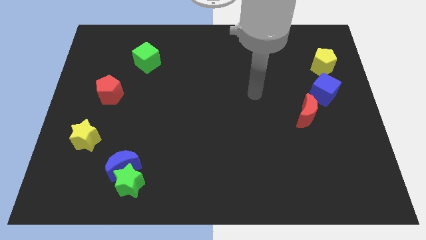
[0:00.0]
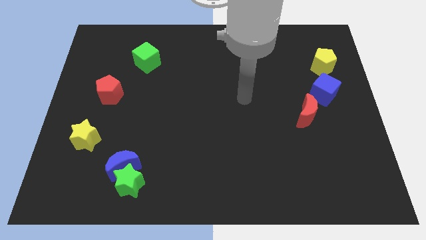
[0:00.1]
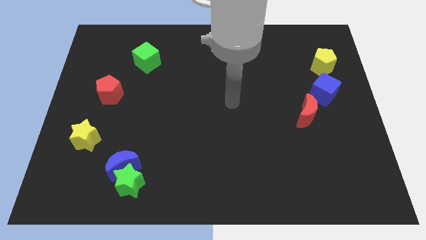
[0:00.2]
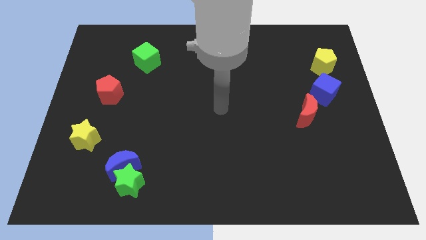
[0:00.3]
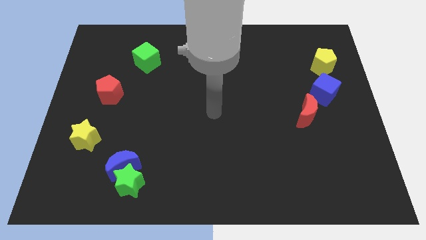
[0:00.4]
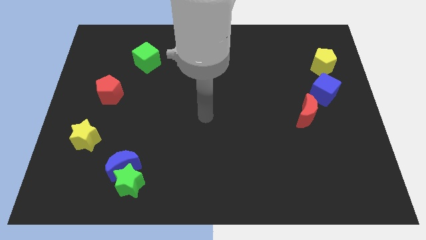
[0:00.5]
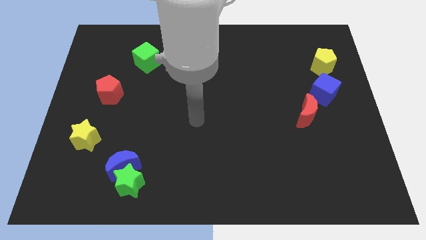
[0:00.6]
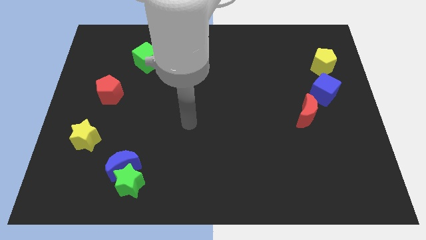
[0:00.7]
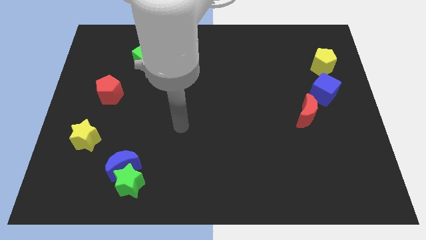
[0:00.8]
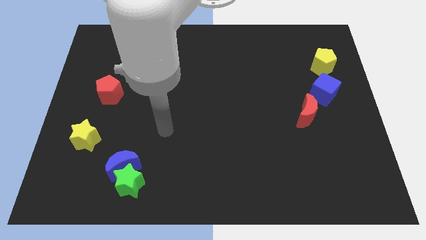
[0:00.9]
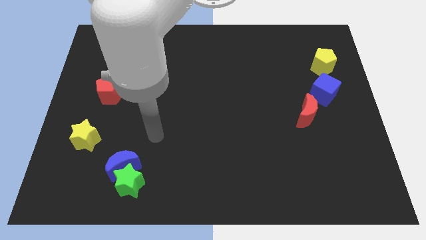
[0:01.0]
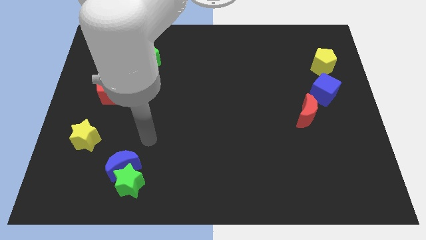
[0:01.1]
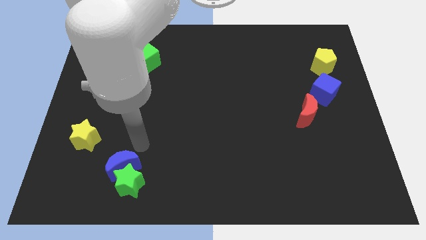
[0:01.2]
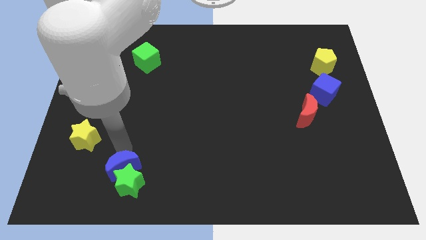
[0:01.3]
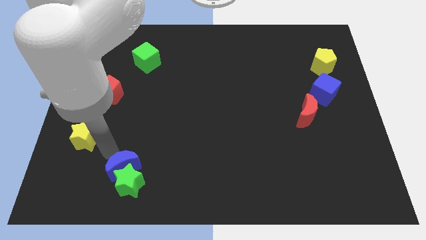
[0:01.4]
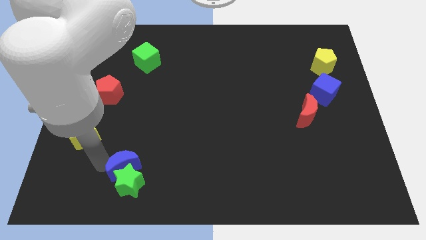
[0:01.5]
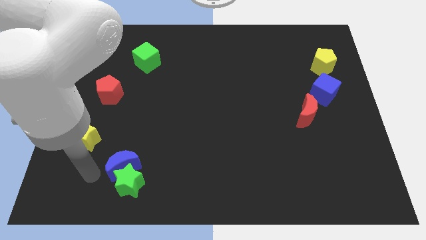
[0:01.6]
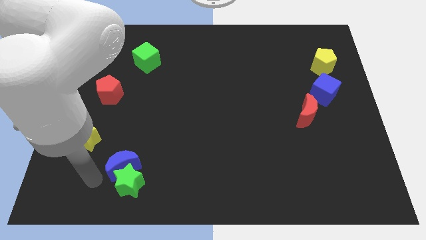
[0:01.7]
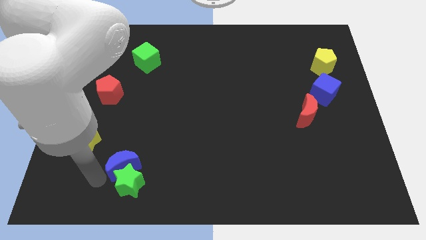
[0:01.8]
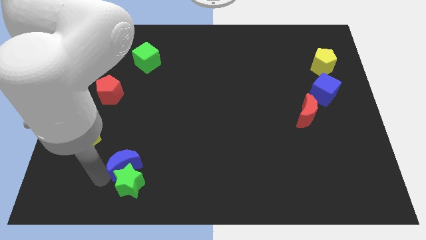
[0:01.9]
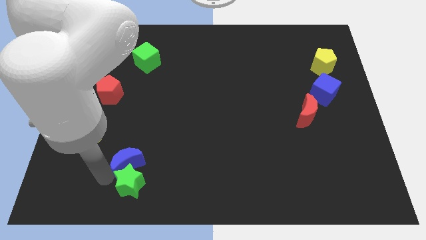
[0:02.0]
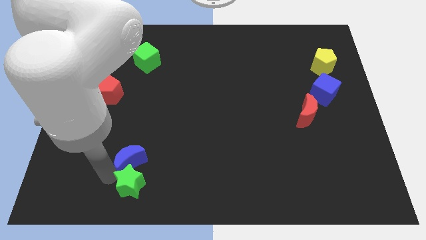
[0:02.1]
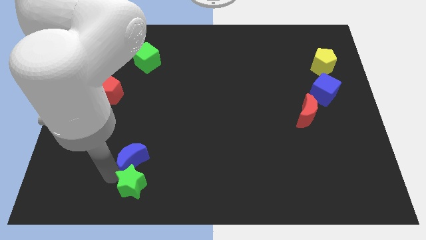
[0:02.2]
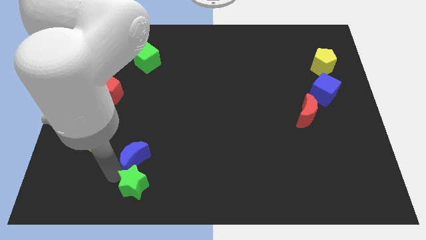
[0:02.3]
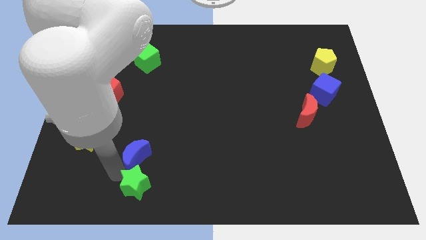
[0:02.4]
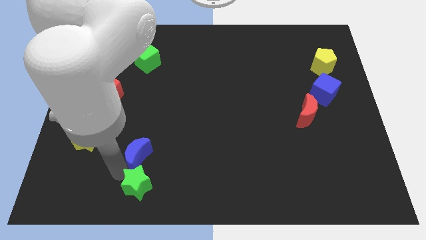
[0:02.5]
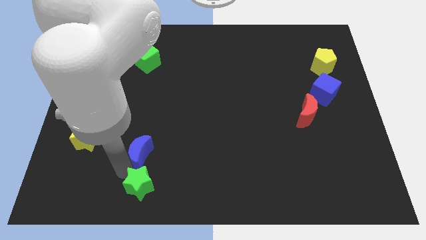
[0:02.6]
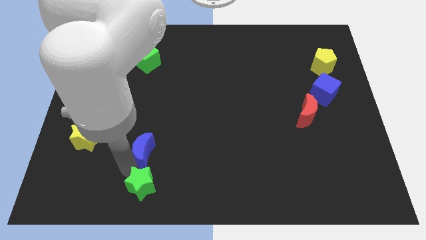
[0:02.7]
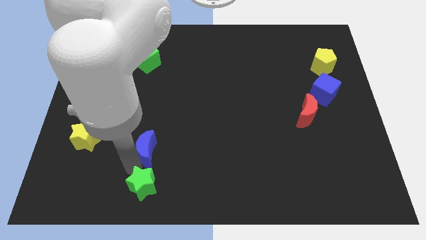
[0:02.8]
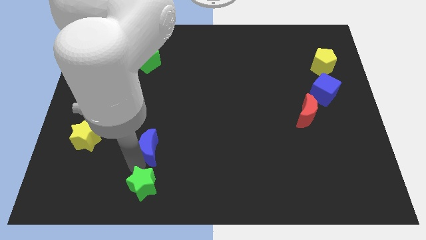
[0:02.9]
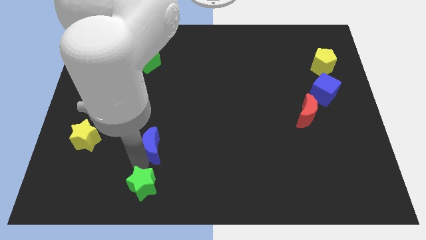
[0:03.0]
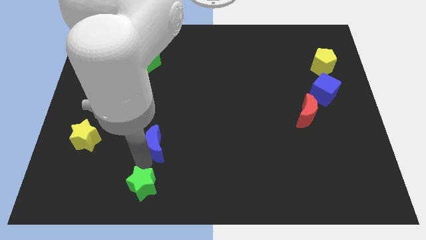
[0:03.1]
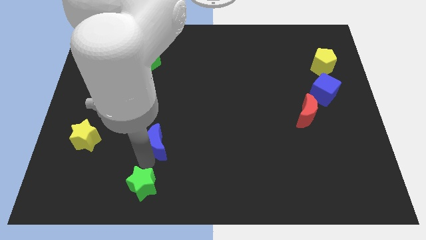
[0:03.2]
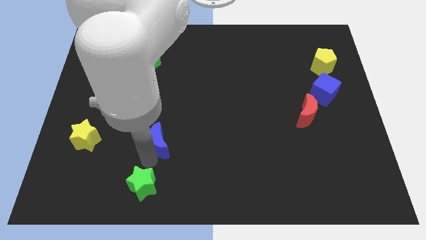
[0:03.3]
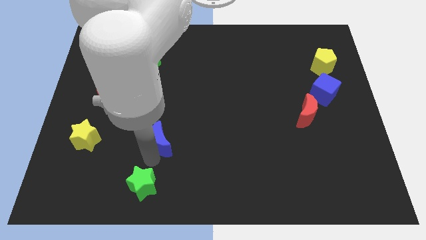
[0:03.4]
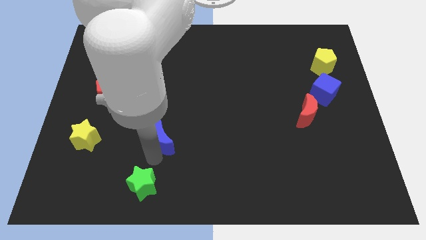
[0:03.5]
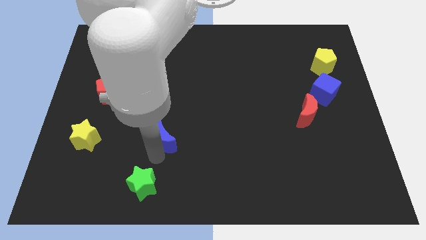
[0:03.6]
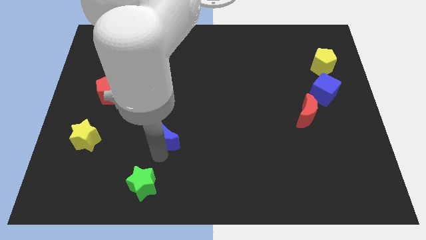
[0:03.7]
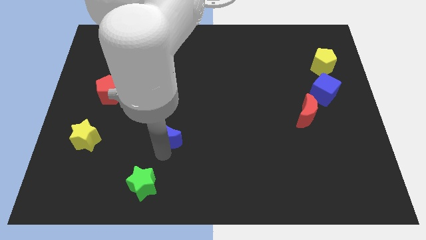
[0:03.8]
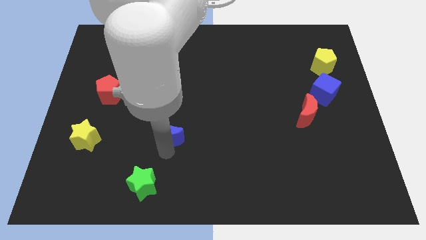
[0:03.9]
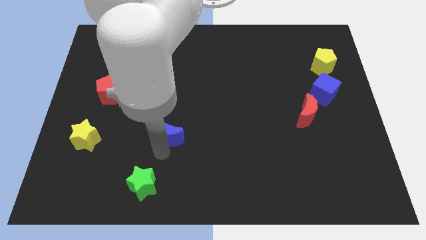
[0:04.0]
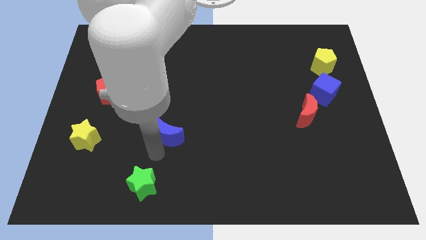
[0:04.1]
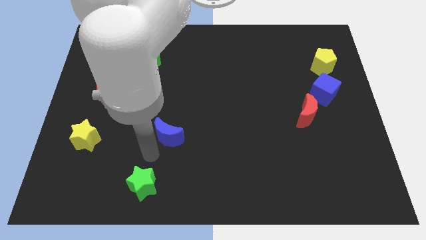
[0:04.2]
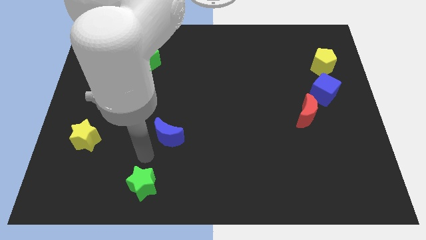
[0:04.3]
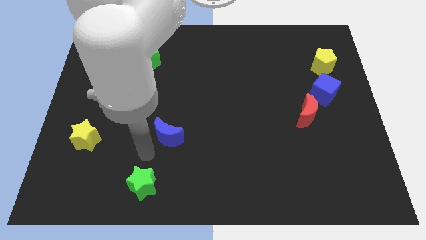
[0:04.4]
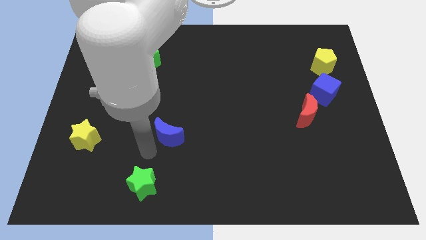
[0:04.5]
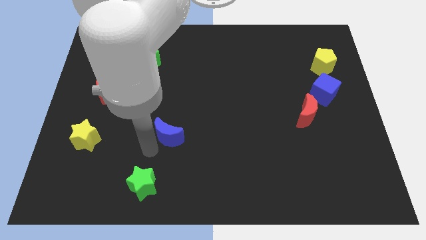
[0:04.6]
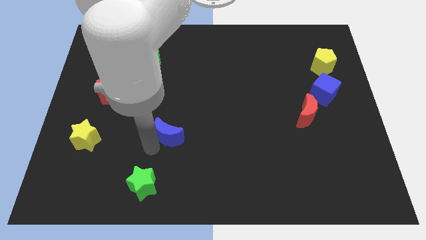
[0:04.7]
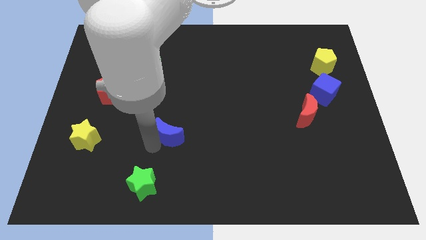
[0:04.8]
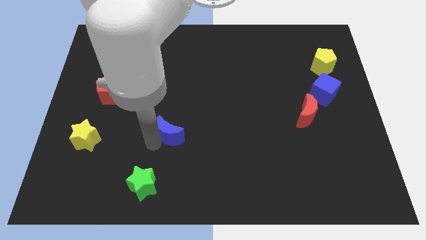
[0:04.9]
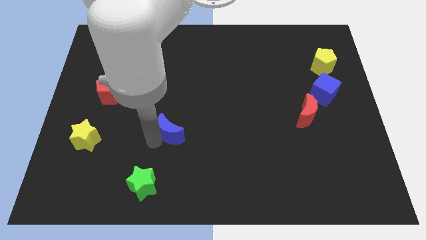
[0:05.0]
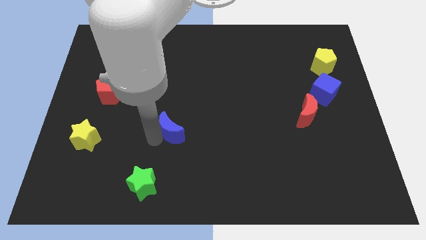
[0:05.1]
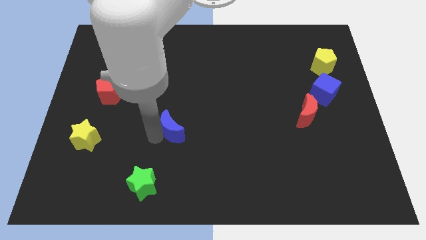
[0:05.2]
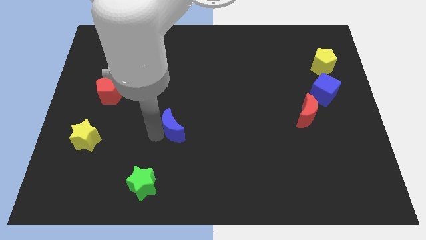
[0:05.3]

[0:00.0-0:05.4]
slide the blue moon to the middle of the board

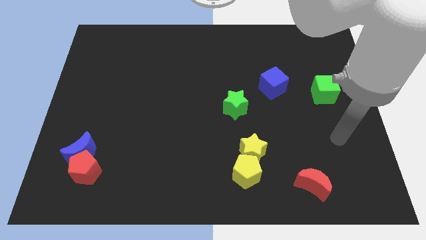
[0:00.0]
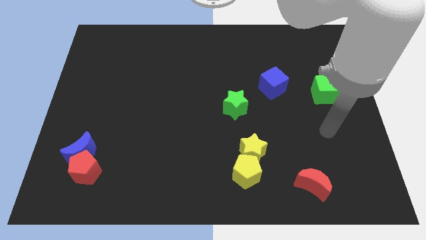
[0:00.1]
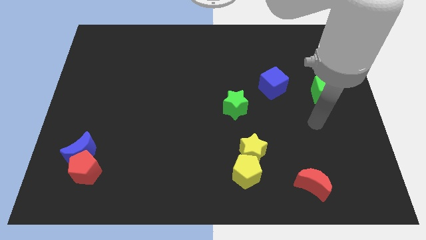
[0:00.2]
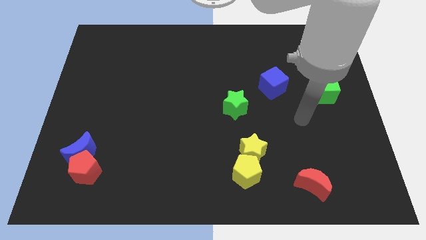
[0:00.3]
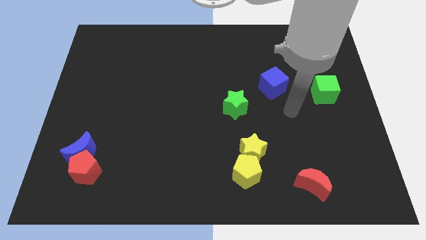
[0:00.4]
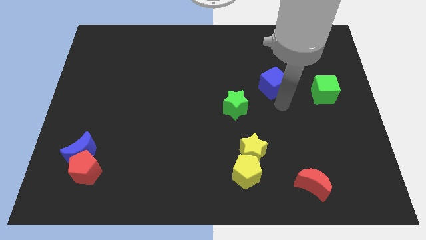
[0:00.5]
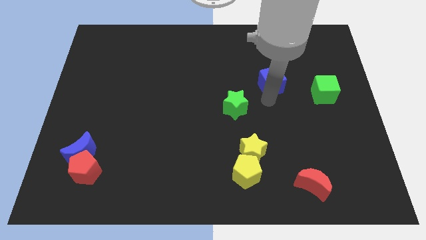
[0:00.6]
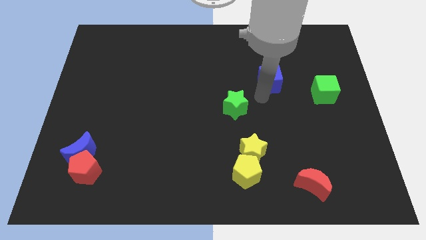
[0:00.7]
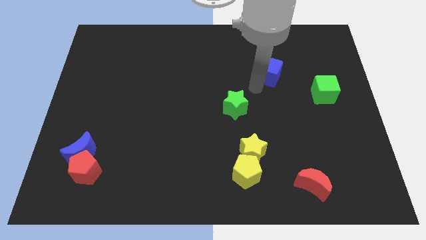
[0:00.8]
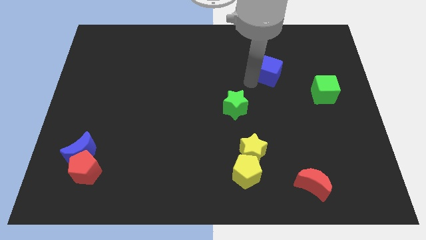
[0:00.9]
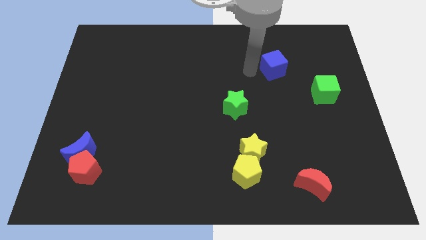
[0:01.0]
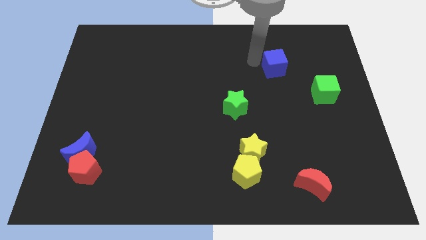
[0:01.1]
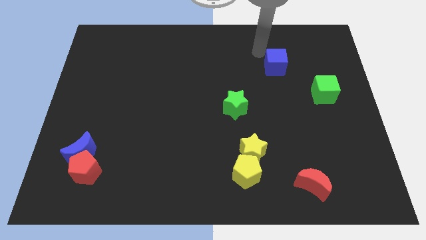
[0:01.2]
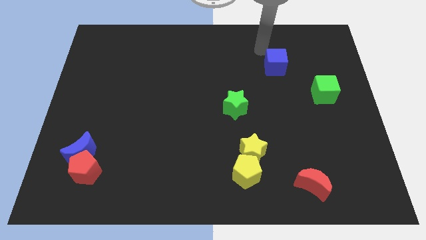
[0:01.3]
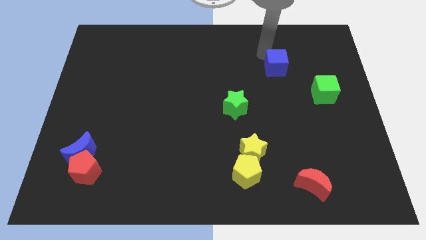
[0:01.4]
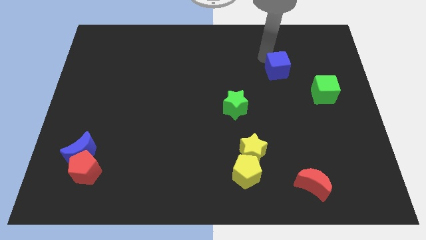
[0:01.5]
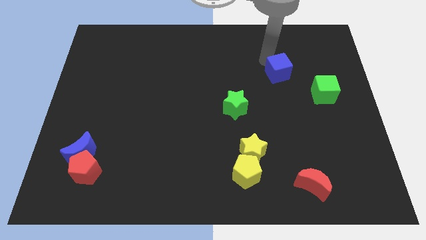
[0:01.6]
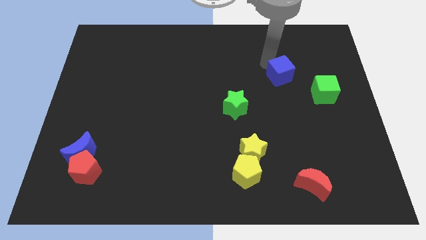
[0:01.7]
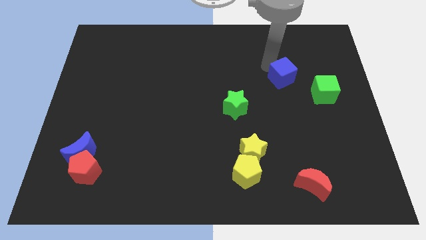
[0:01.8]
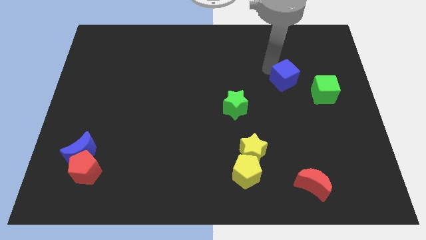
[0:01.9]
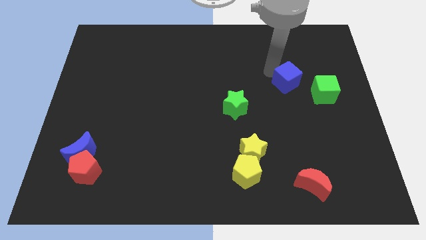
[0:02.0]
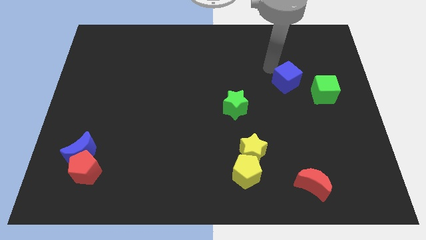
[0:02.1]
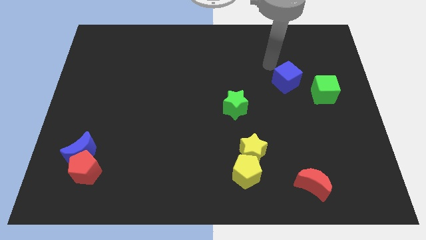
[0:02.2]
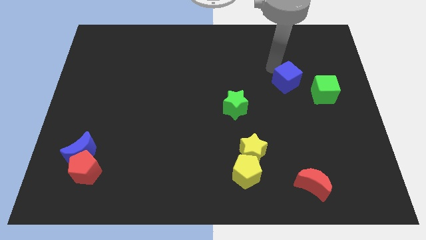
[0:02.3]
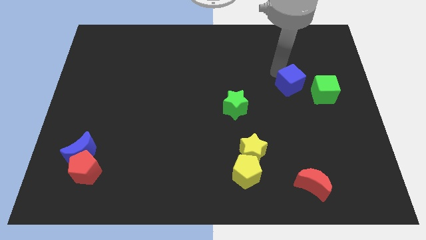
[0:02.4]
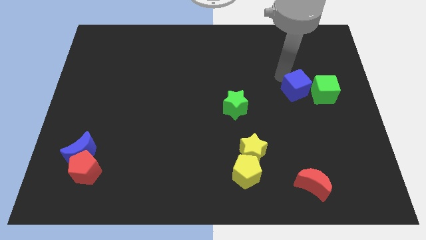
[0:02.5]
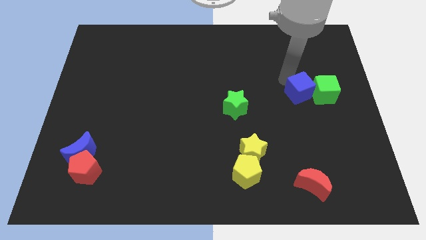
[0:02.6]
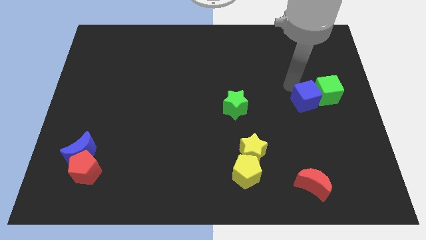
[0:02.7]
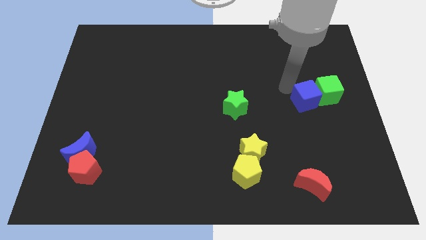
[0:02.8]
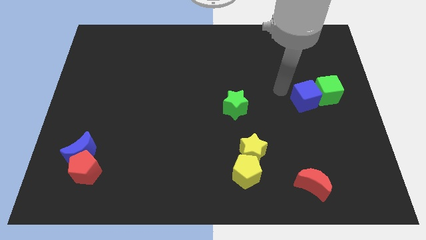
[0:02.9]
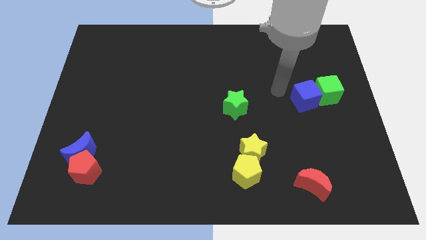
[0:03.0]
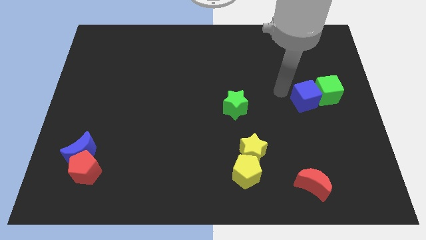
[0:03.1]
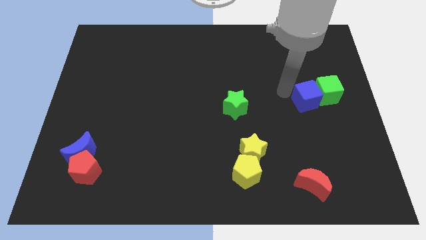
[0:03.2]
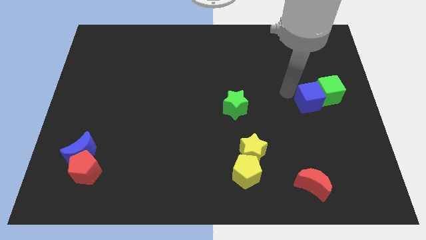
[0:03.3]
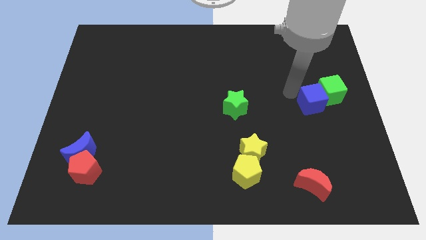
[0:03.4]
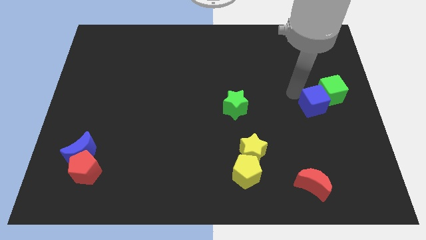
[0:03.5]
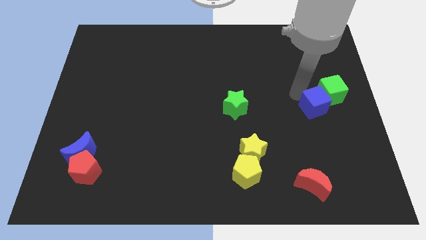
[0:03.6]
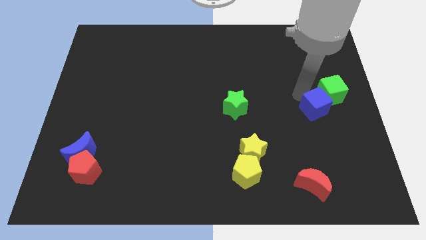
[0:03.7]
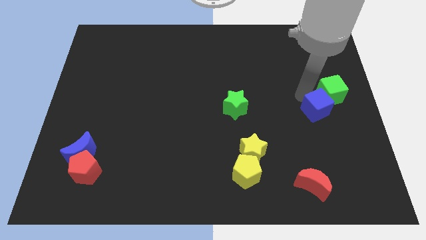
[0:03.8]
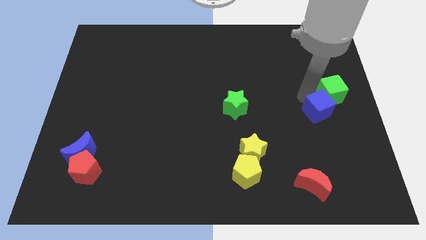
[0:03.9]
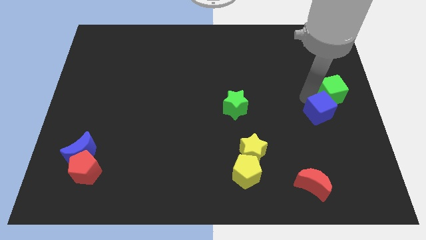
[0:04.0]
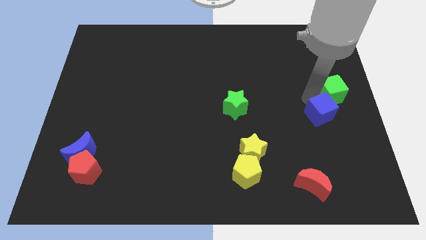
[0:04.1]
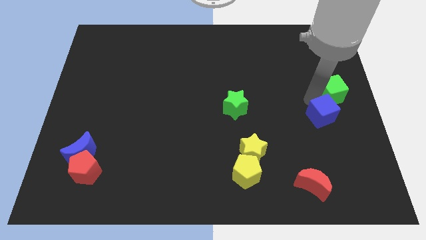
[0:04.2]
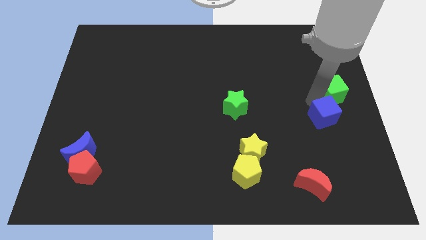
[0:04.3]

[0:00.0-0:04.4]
push the blue cube to the right side
